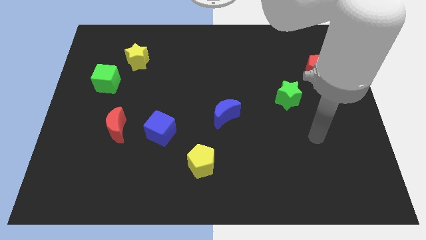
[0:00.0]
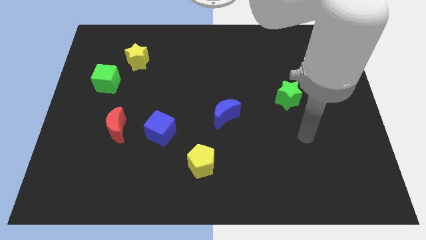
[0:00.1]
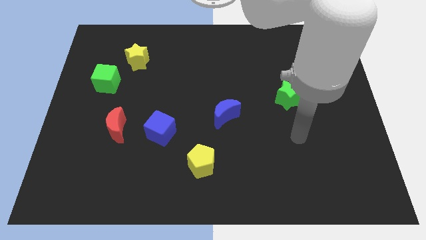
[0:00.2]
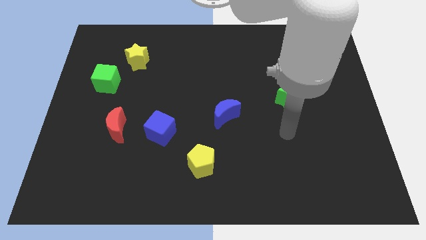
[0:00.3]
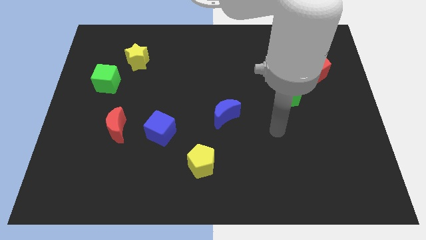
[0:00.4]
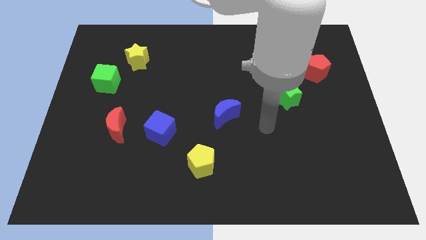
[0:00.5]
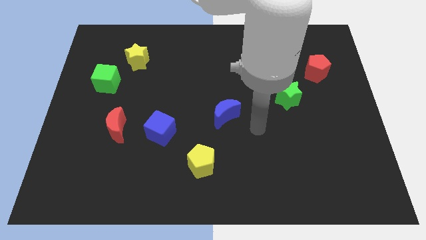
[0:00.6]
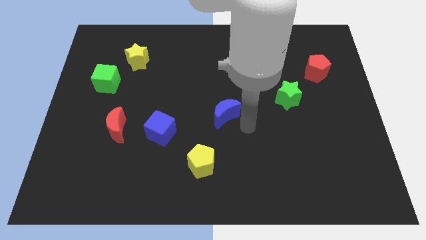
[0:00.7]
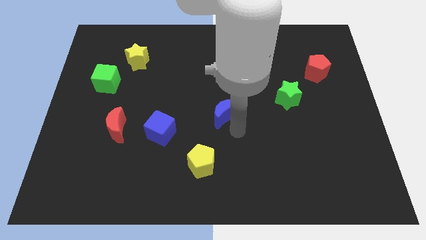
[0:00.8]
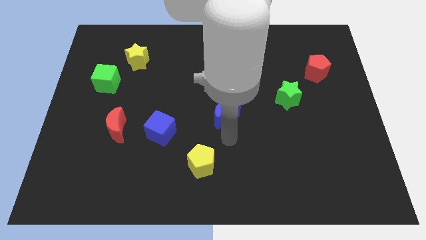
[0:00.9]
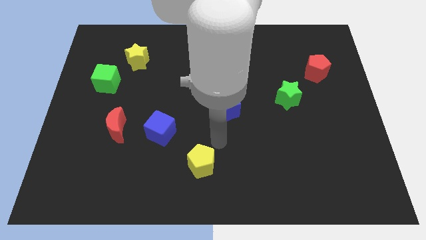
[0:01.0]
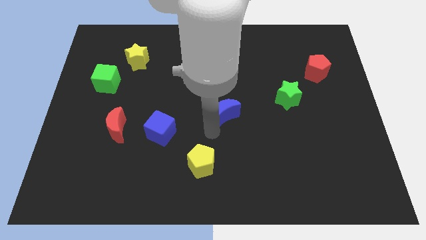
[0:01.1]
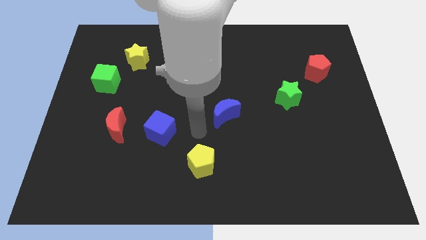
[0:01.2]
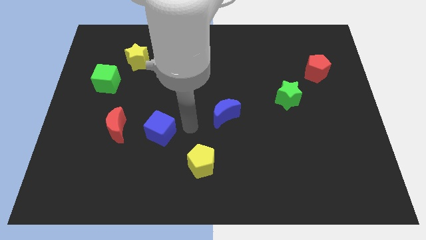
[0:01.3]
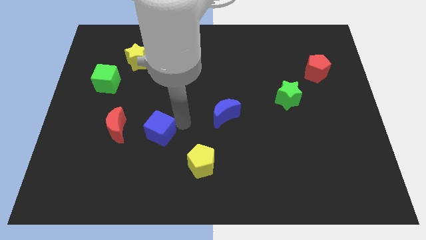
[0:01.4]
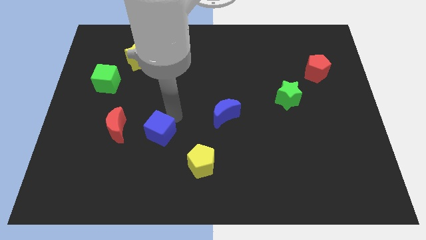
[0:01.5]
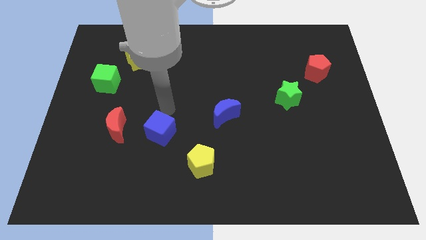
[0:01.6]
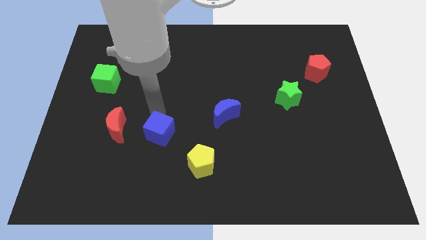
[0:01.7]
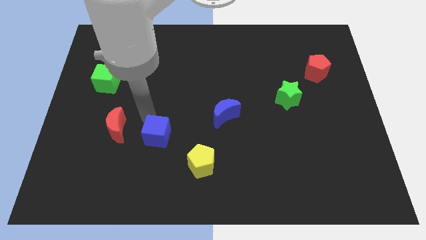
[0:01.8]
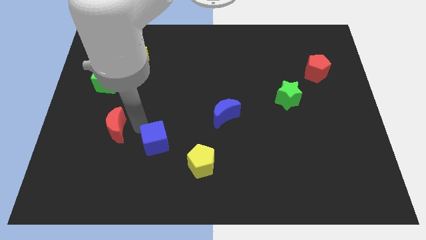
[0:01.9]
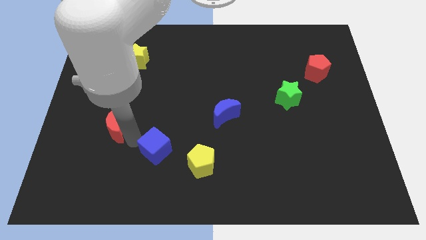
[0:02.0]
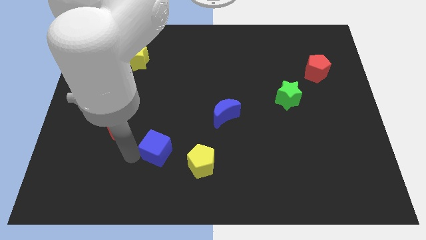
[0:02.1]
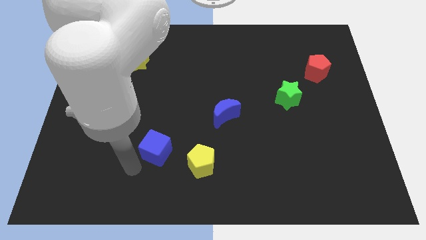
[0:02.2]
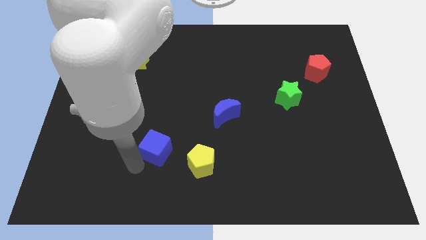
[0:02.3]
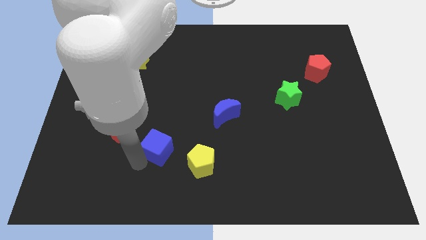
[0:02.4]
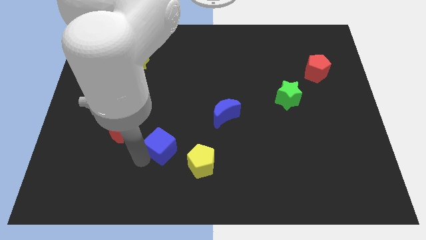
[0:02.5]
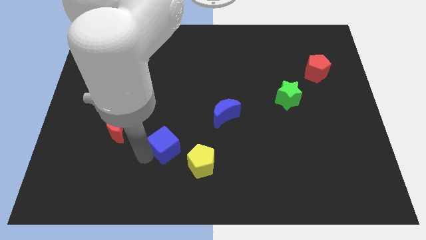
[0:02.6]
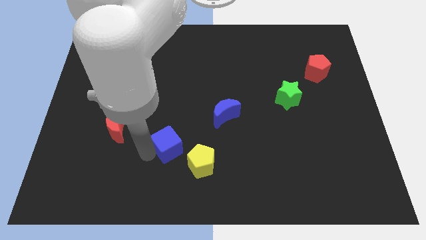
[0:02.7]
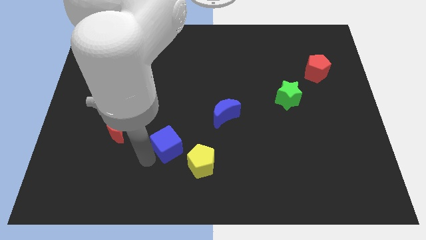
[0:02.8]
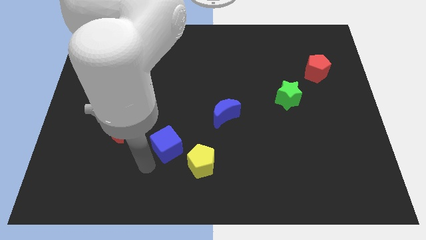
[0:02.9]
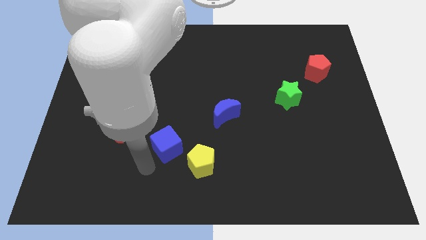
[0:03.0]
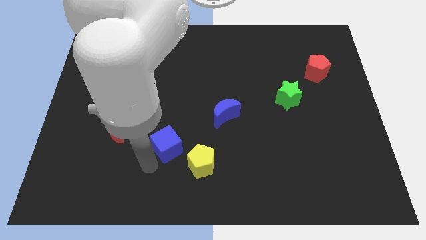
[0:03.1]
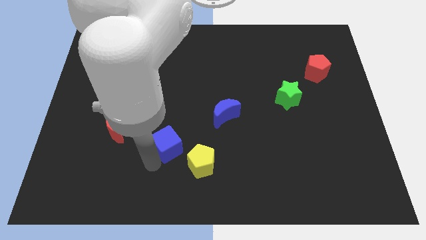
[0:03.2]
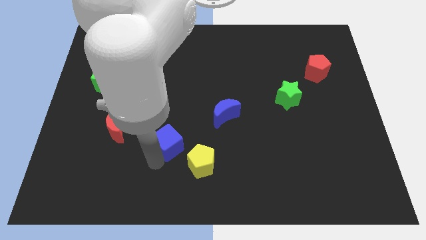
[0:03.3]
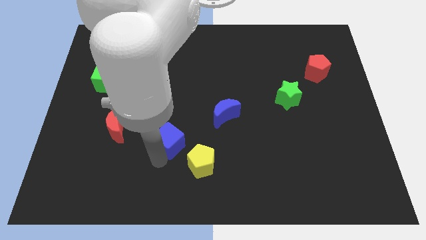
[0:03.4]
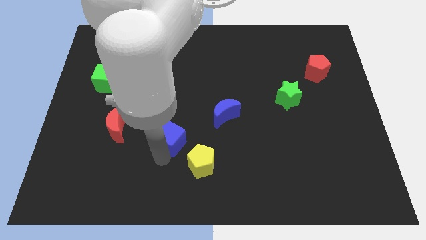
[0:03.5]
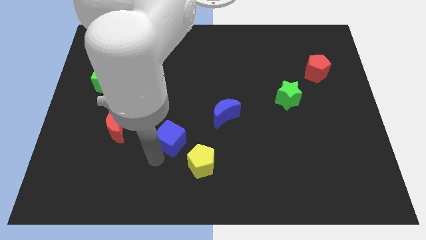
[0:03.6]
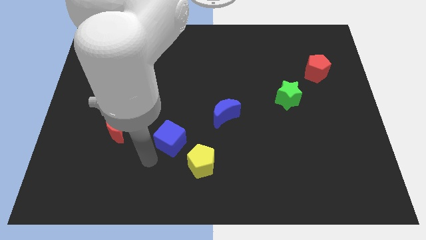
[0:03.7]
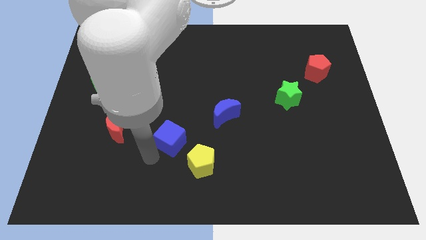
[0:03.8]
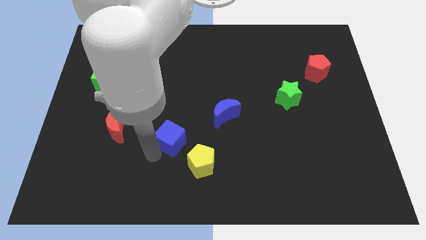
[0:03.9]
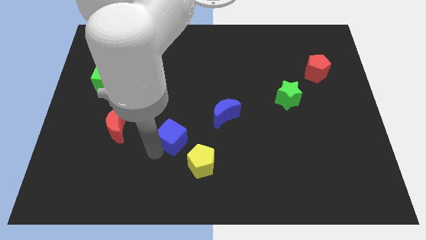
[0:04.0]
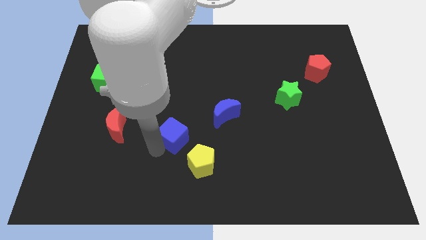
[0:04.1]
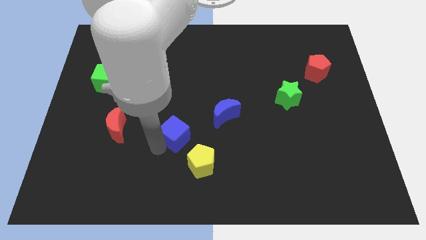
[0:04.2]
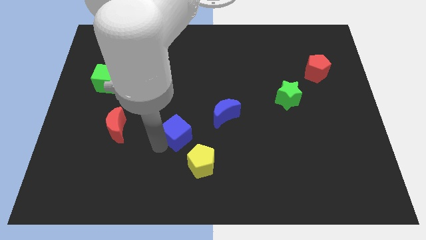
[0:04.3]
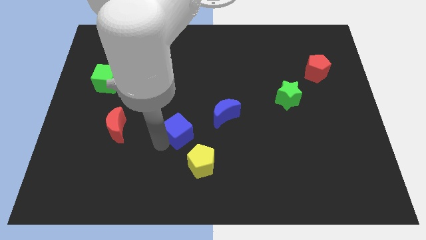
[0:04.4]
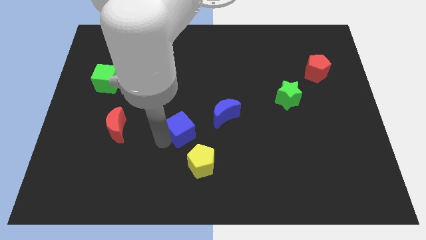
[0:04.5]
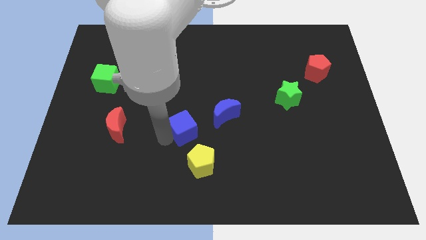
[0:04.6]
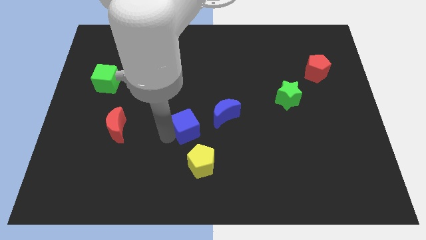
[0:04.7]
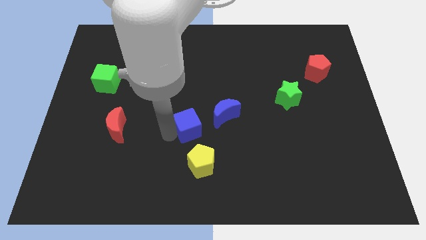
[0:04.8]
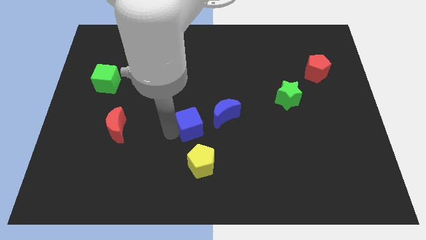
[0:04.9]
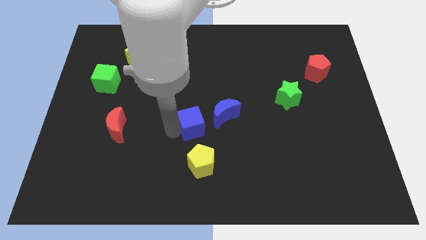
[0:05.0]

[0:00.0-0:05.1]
move the blue cube right a little bit

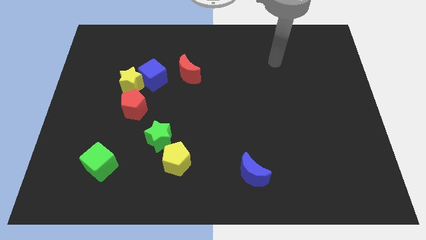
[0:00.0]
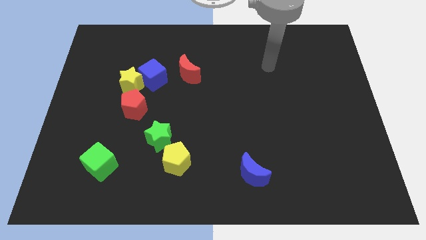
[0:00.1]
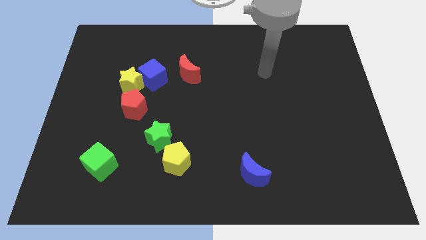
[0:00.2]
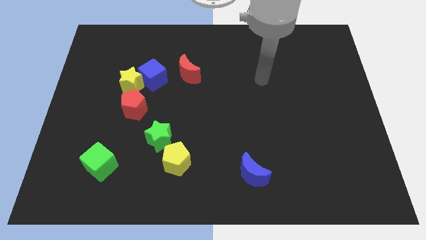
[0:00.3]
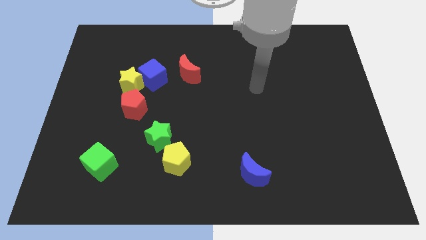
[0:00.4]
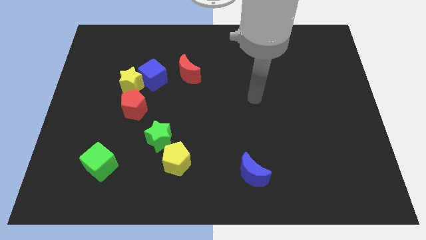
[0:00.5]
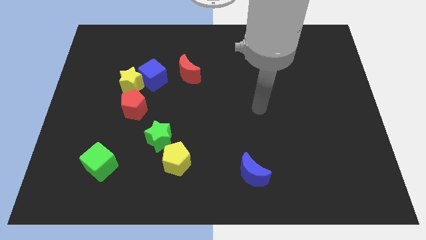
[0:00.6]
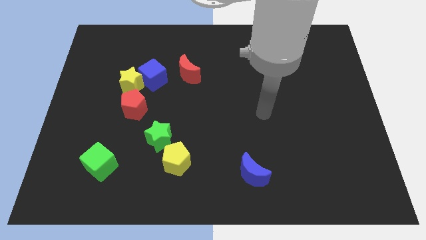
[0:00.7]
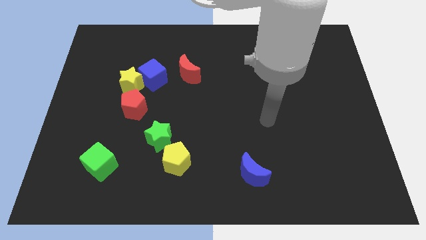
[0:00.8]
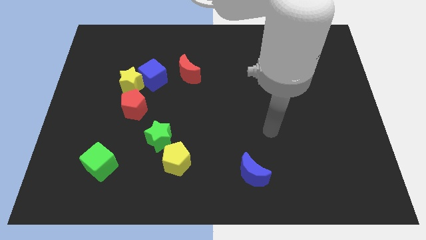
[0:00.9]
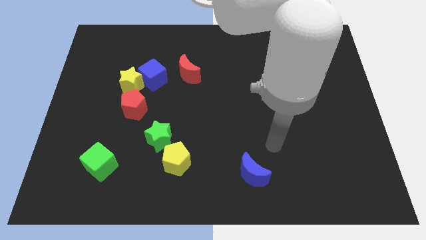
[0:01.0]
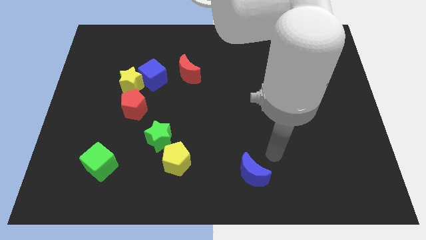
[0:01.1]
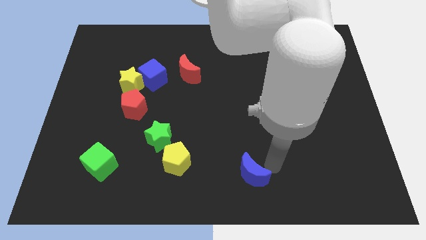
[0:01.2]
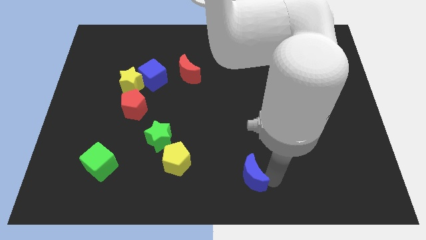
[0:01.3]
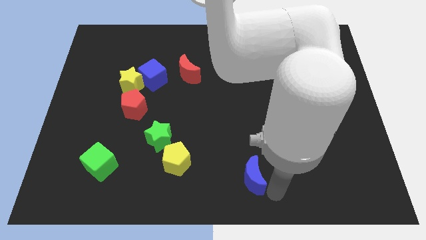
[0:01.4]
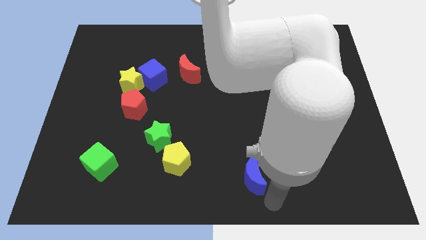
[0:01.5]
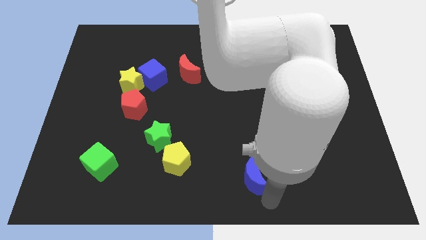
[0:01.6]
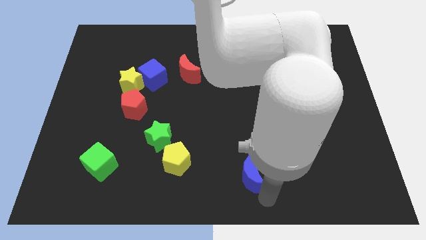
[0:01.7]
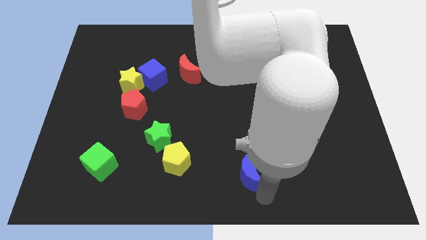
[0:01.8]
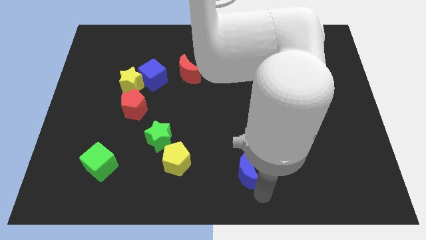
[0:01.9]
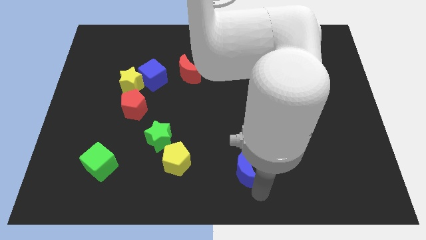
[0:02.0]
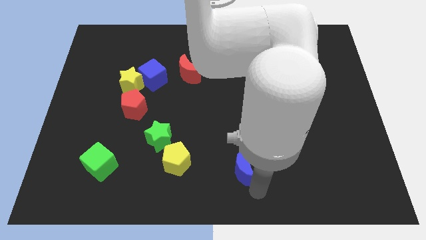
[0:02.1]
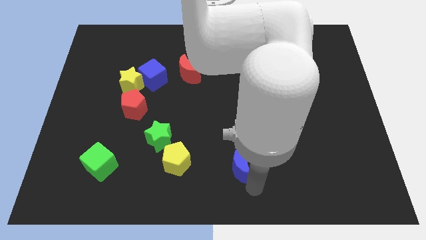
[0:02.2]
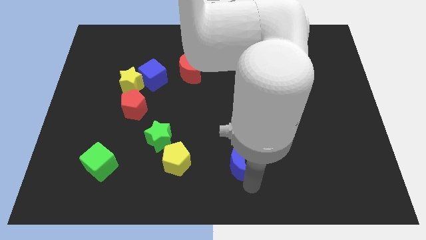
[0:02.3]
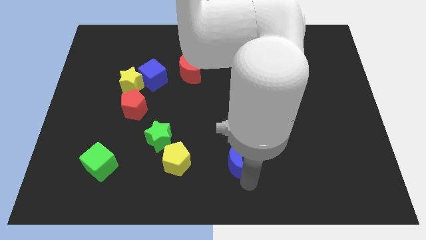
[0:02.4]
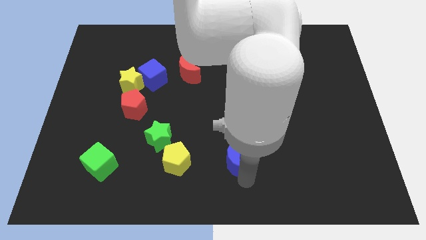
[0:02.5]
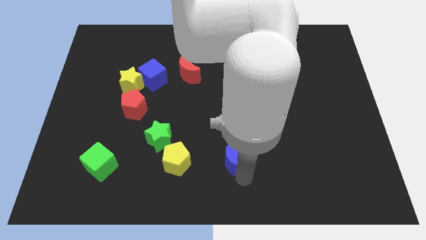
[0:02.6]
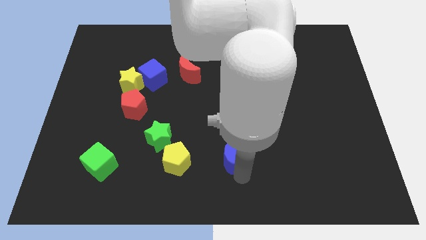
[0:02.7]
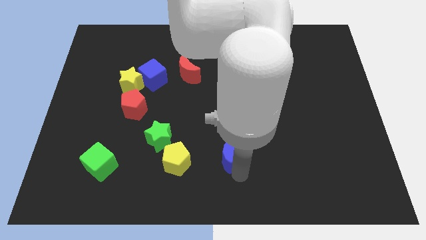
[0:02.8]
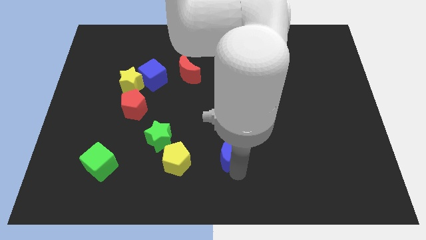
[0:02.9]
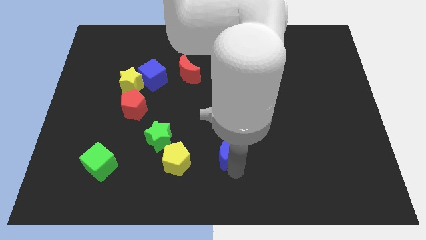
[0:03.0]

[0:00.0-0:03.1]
slightly push the blue moon upwards and left diagonally
